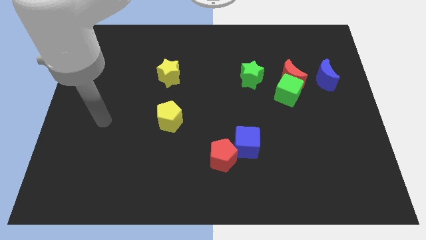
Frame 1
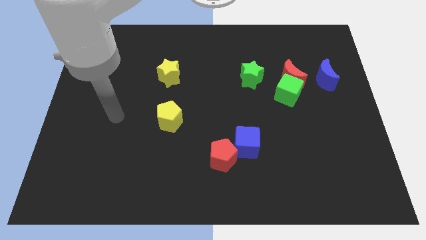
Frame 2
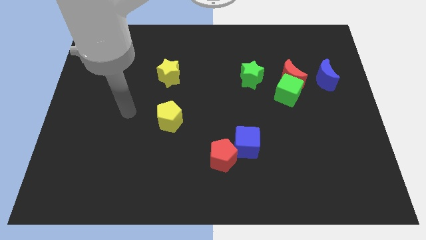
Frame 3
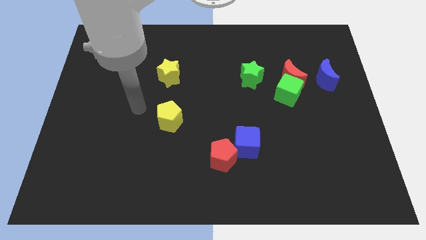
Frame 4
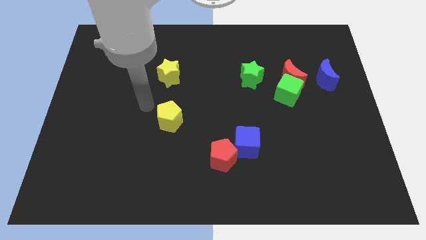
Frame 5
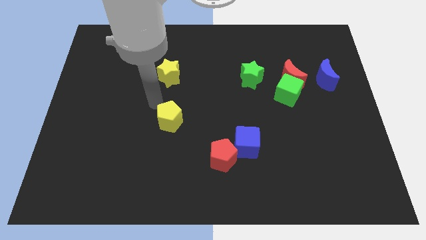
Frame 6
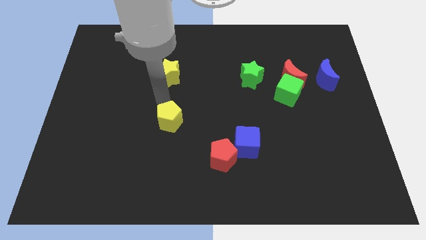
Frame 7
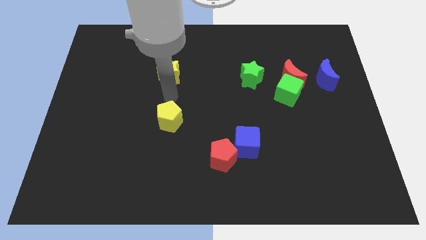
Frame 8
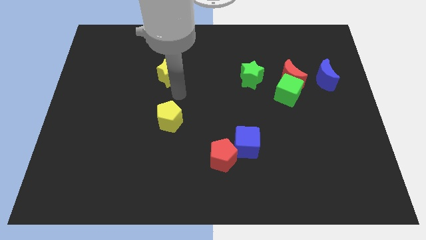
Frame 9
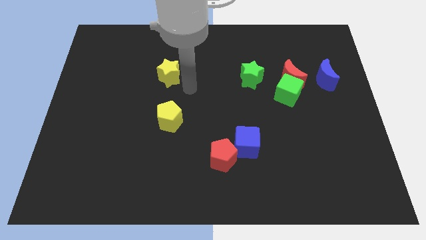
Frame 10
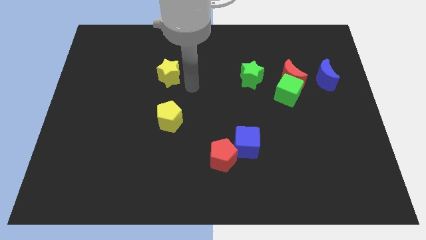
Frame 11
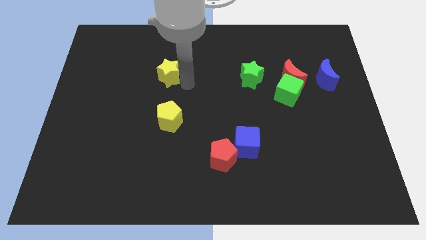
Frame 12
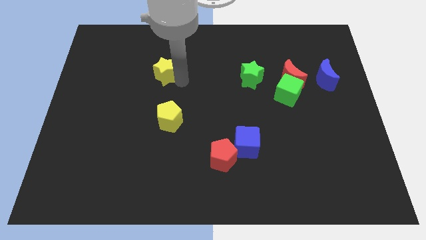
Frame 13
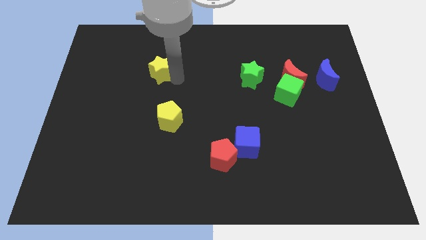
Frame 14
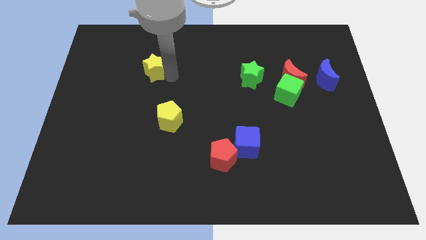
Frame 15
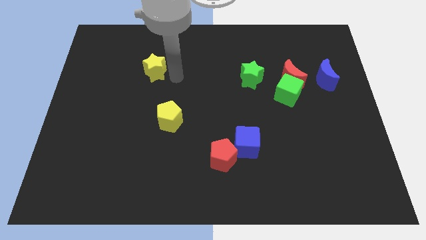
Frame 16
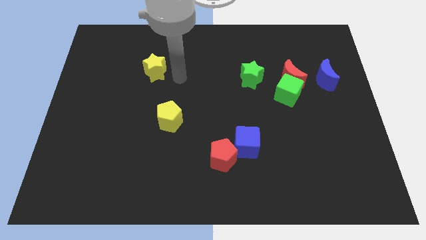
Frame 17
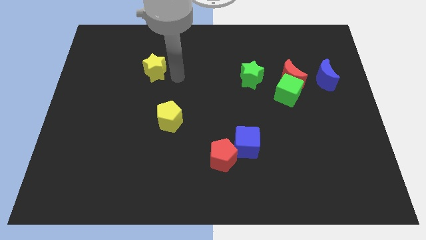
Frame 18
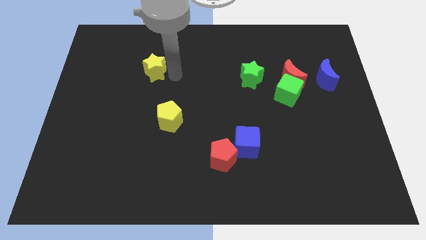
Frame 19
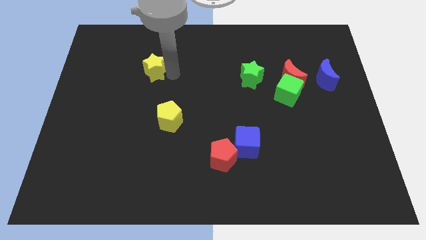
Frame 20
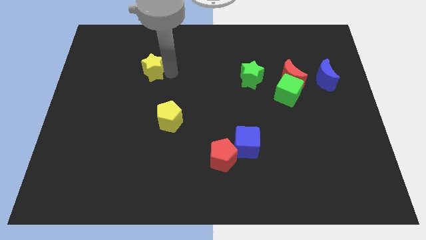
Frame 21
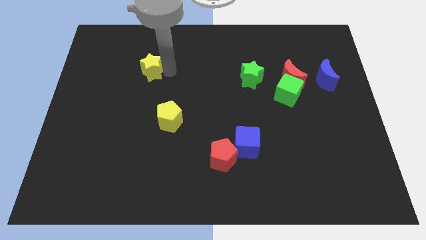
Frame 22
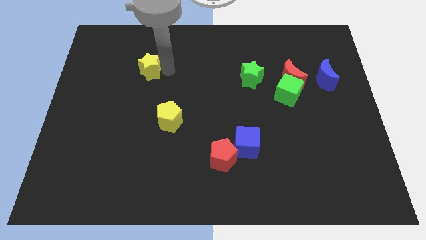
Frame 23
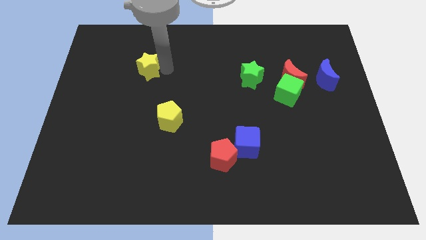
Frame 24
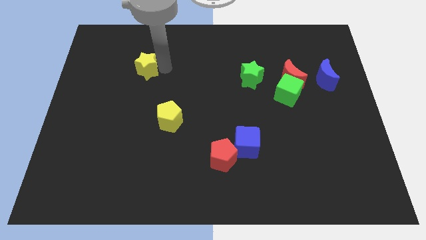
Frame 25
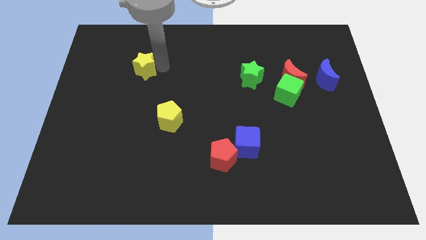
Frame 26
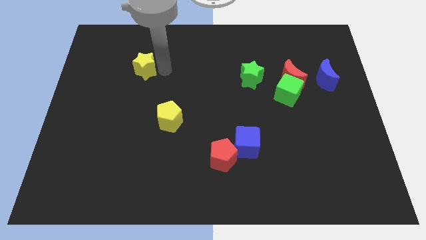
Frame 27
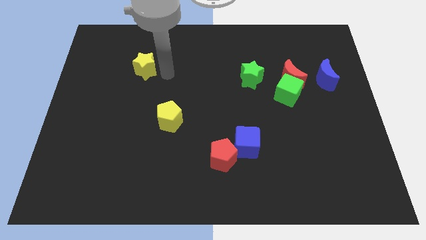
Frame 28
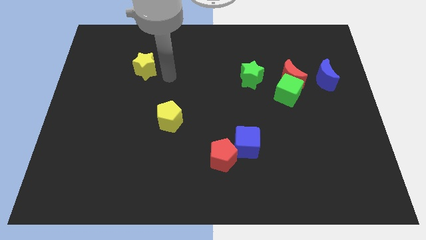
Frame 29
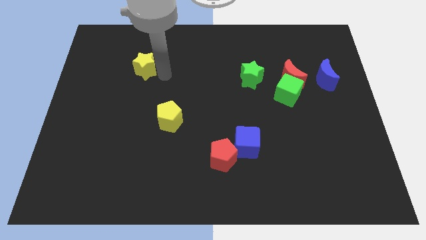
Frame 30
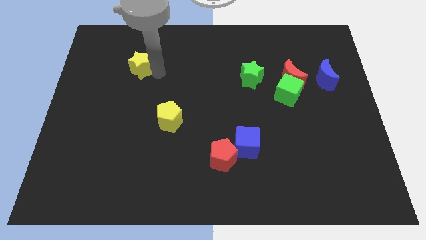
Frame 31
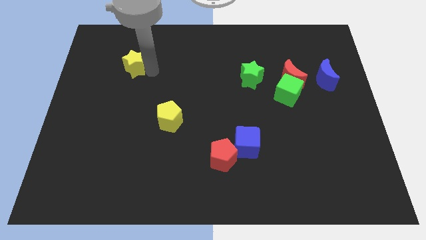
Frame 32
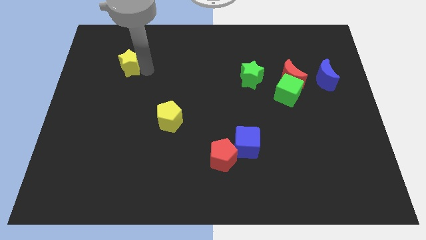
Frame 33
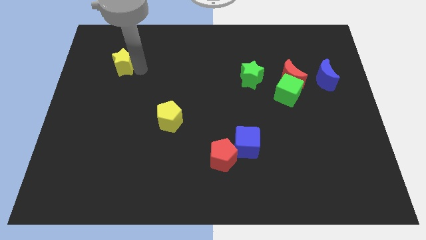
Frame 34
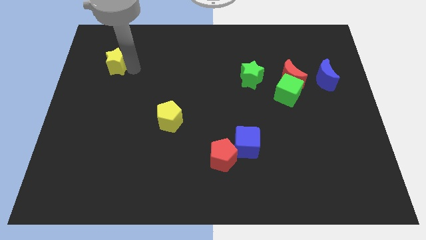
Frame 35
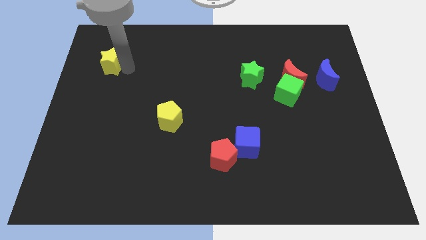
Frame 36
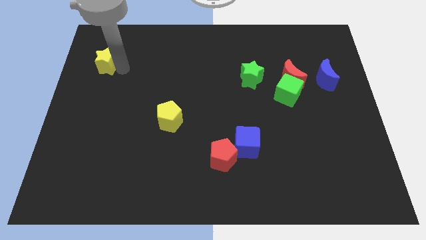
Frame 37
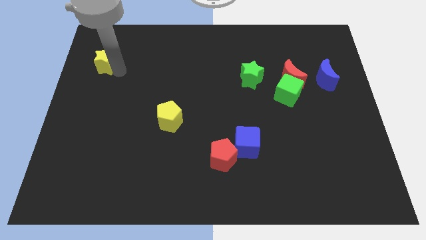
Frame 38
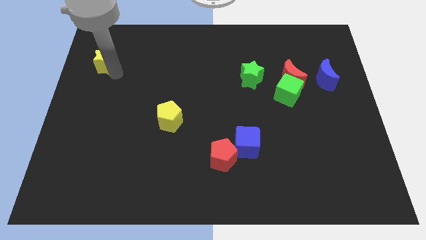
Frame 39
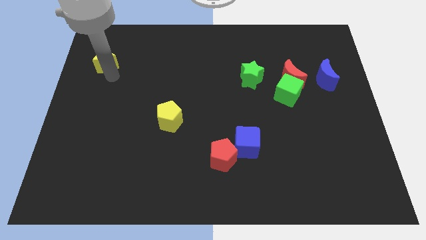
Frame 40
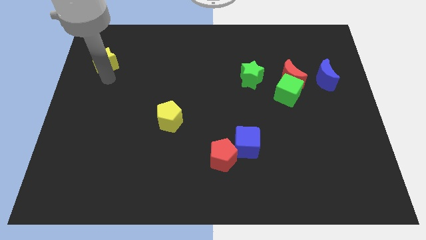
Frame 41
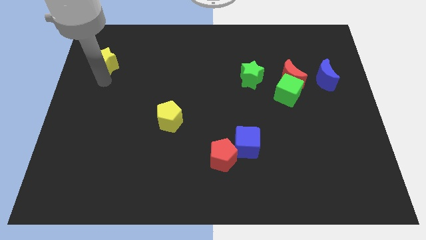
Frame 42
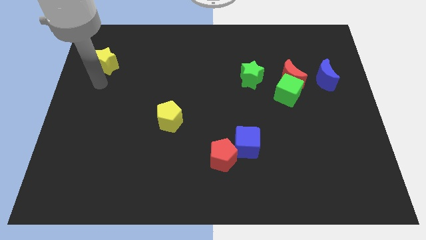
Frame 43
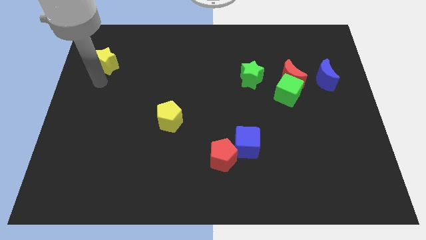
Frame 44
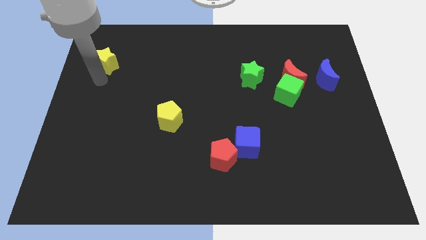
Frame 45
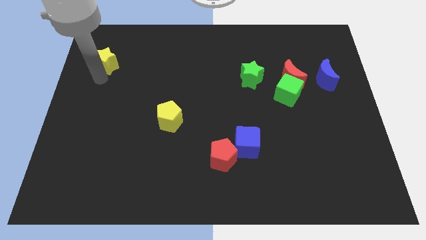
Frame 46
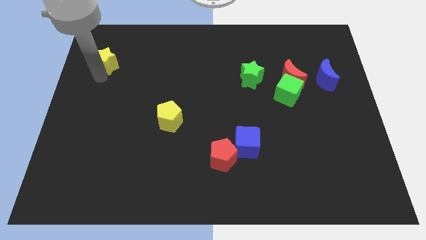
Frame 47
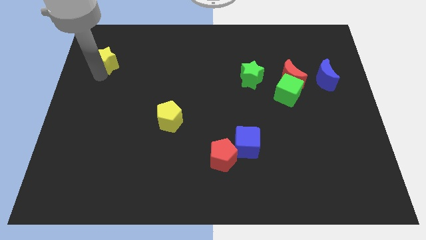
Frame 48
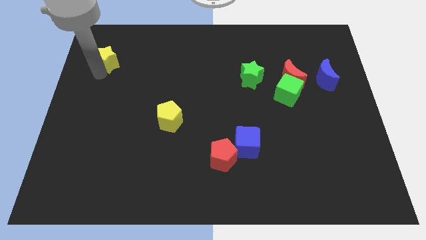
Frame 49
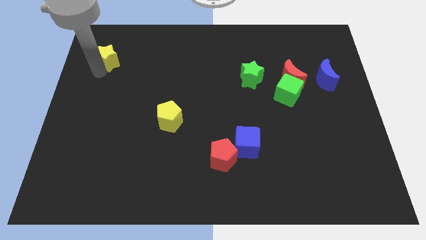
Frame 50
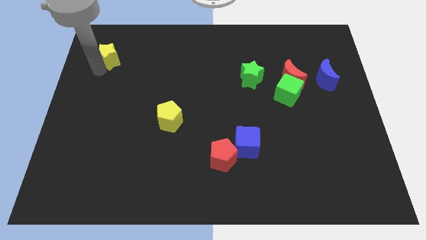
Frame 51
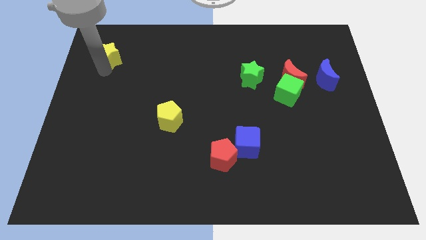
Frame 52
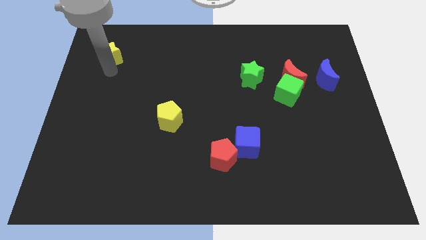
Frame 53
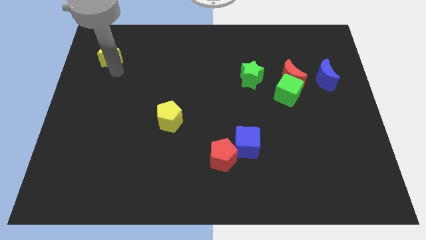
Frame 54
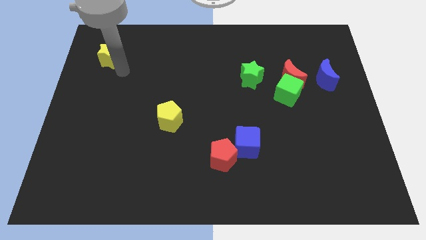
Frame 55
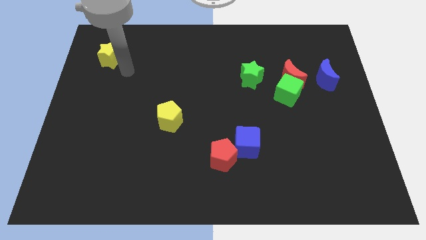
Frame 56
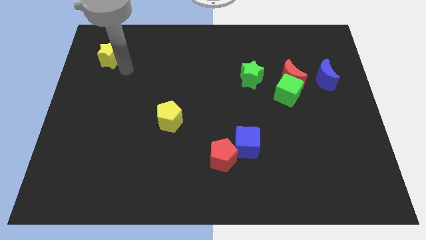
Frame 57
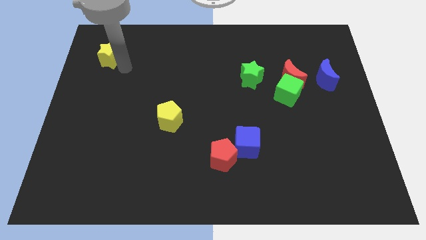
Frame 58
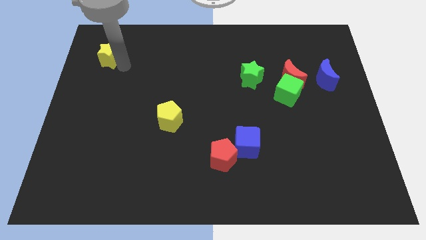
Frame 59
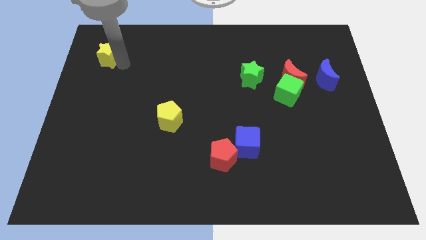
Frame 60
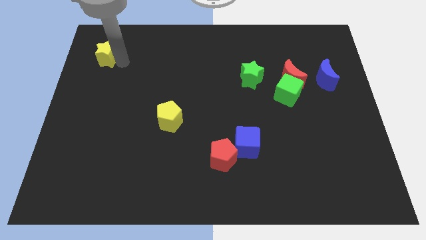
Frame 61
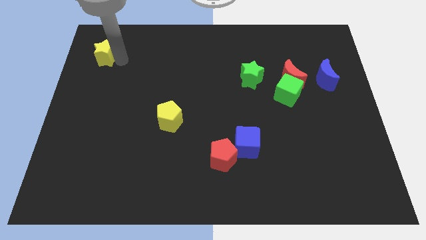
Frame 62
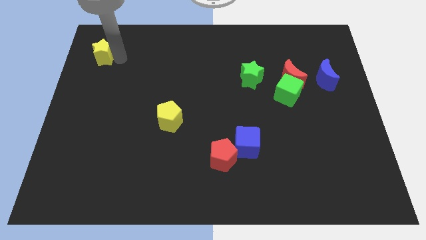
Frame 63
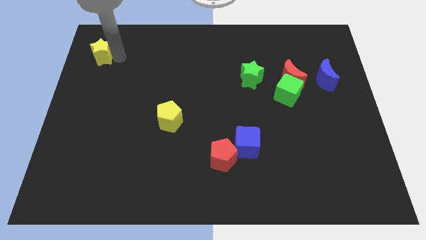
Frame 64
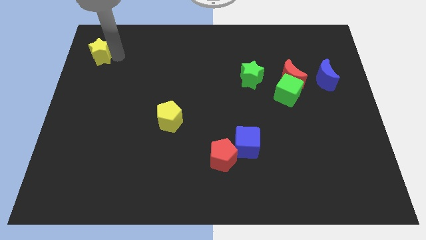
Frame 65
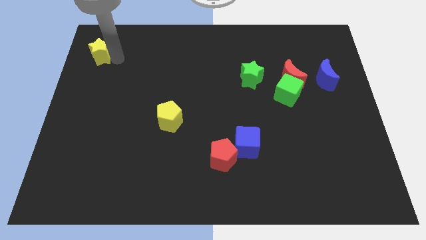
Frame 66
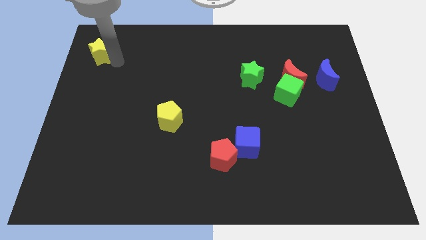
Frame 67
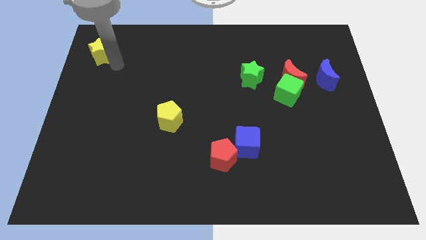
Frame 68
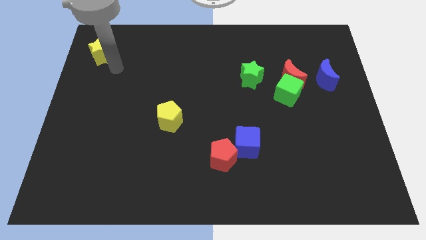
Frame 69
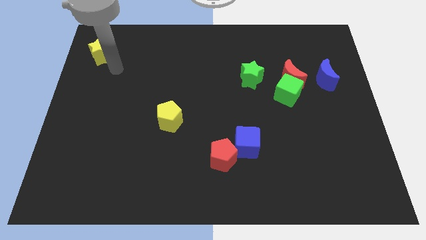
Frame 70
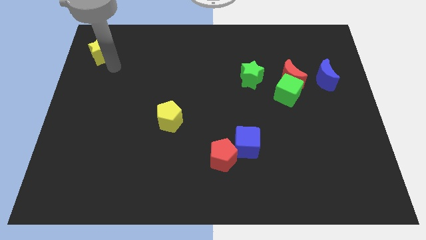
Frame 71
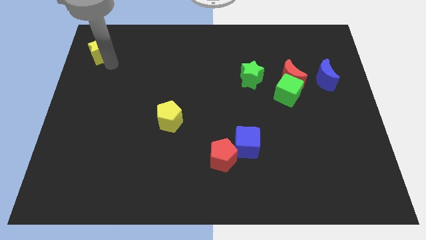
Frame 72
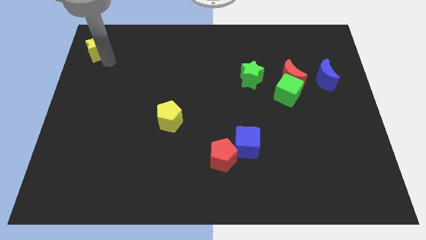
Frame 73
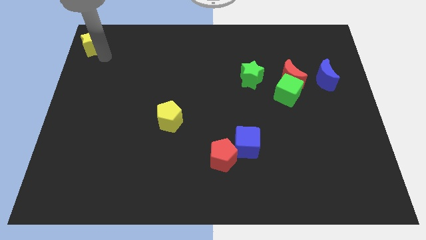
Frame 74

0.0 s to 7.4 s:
put the yellow star to the top left corner
